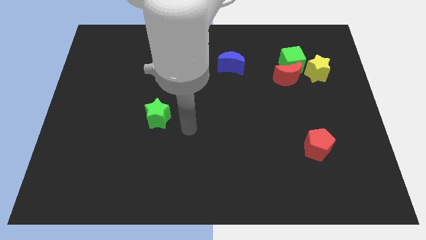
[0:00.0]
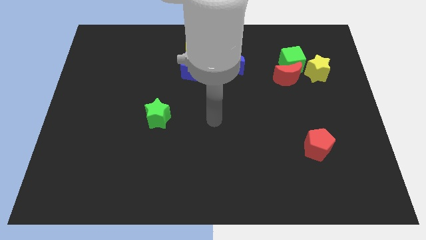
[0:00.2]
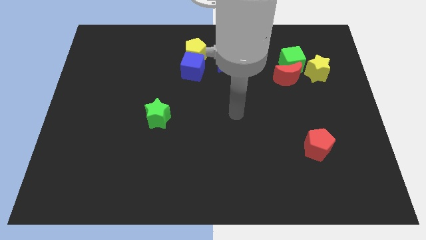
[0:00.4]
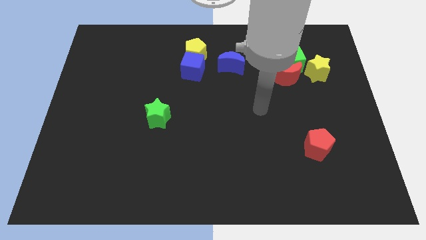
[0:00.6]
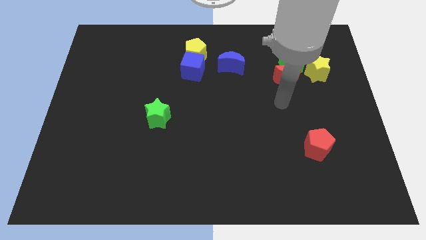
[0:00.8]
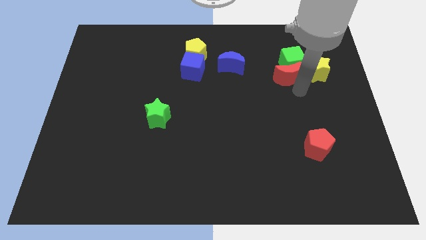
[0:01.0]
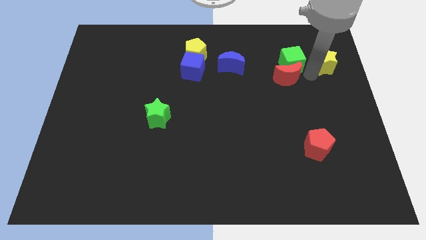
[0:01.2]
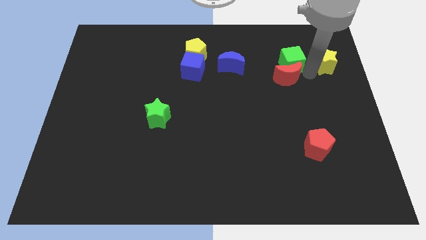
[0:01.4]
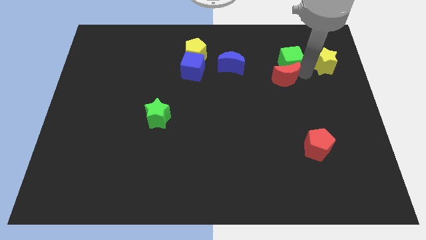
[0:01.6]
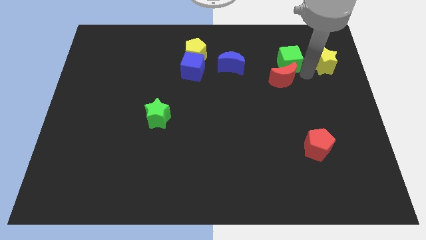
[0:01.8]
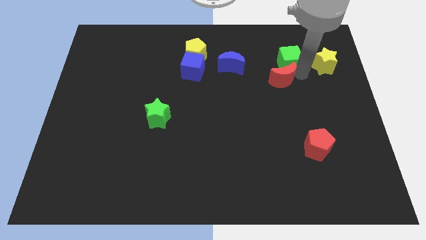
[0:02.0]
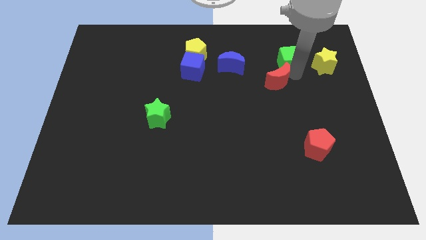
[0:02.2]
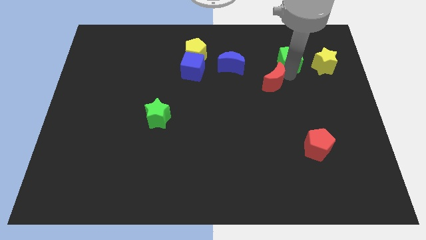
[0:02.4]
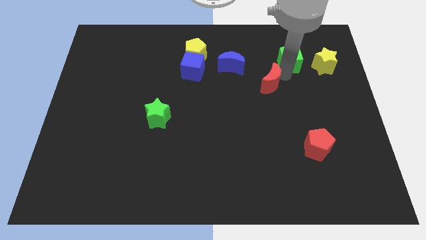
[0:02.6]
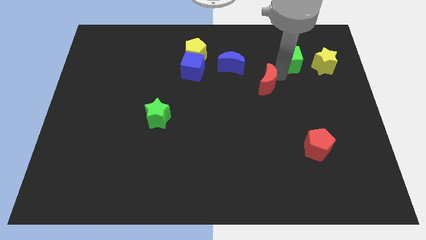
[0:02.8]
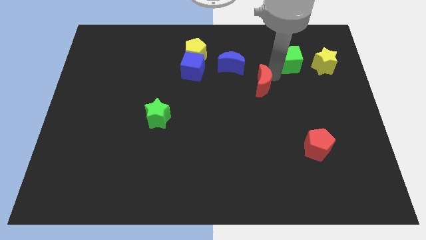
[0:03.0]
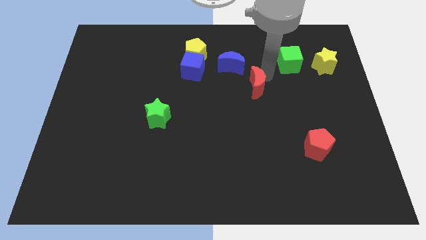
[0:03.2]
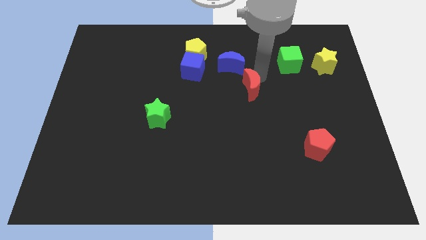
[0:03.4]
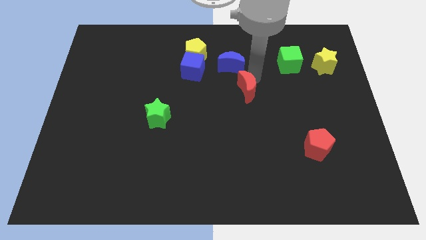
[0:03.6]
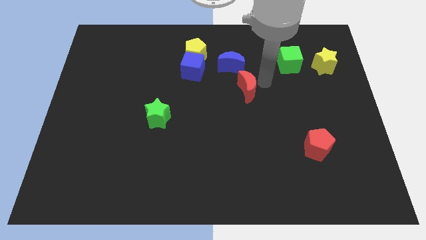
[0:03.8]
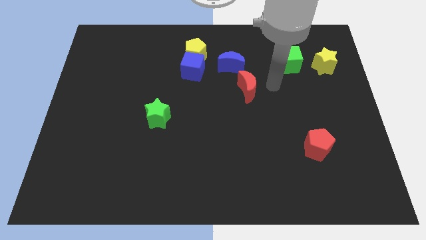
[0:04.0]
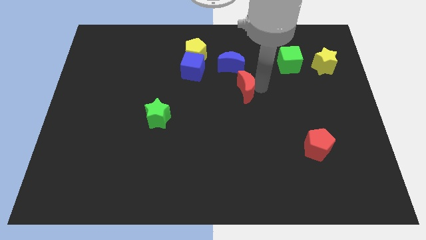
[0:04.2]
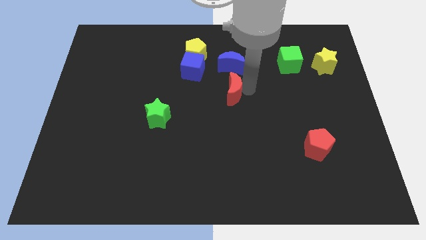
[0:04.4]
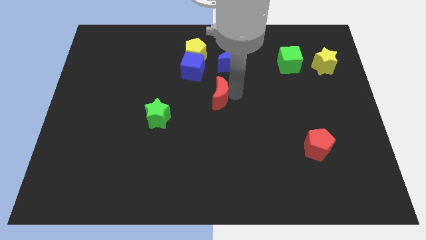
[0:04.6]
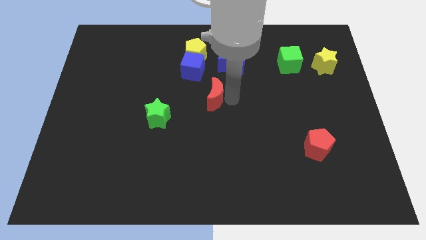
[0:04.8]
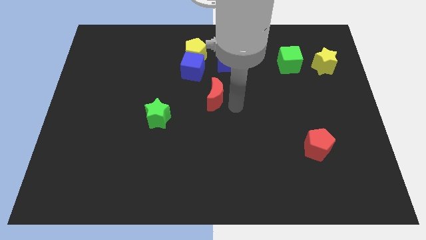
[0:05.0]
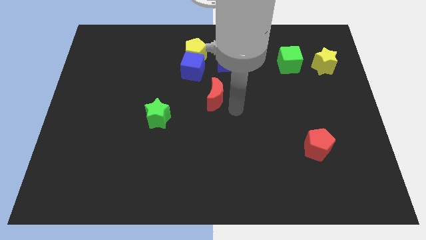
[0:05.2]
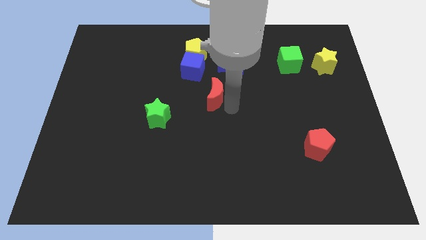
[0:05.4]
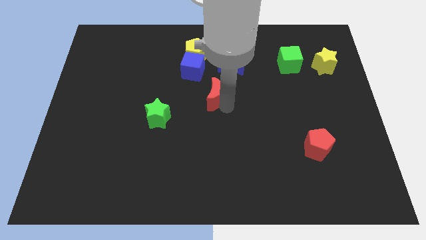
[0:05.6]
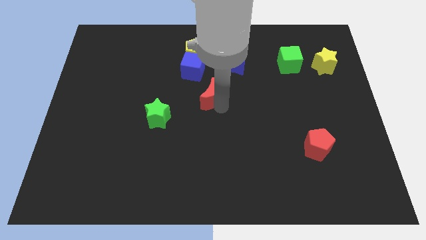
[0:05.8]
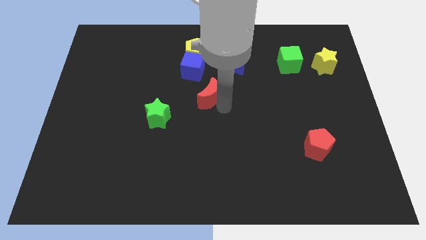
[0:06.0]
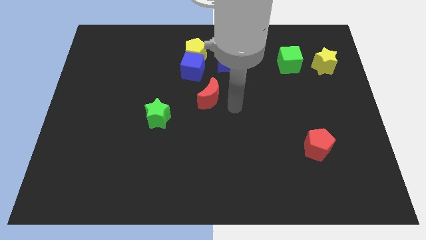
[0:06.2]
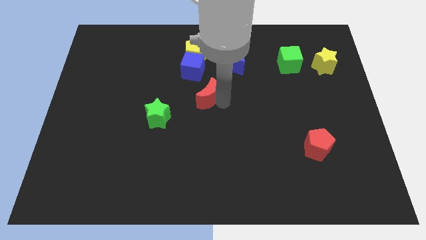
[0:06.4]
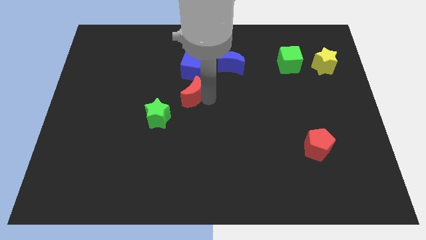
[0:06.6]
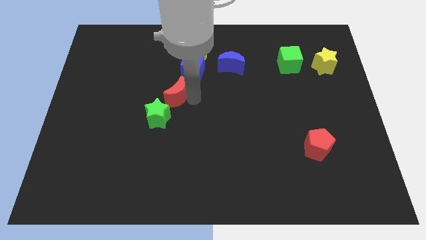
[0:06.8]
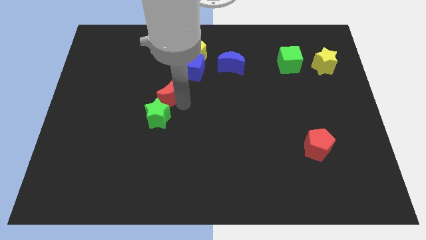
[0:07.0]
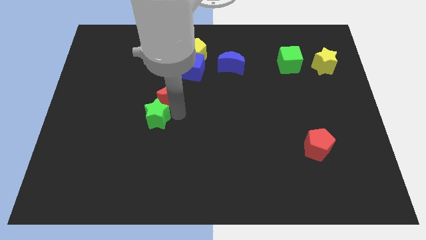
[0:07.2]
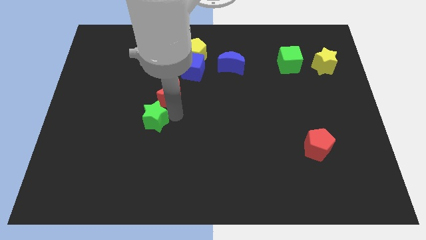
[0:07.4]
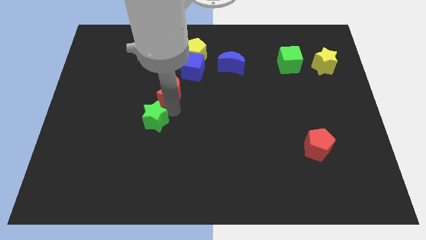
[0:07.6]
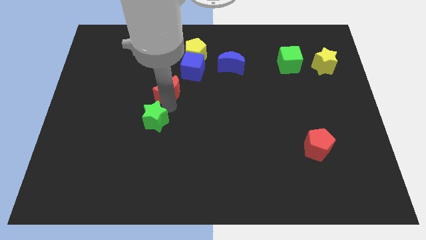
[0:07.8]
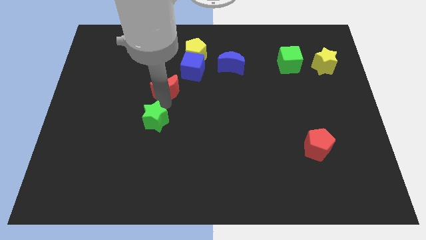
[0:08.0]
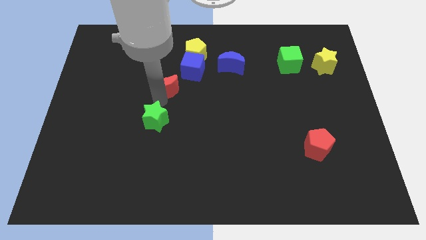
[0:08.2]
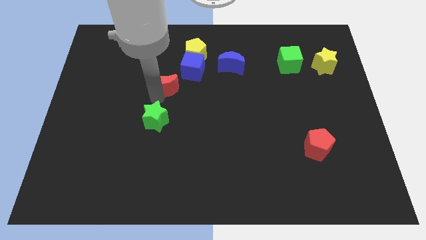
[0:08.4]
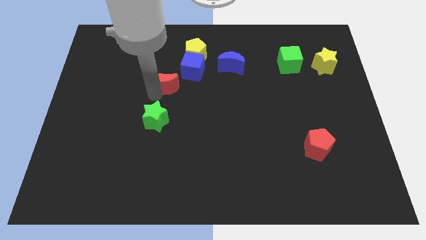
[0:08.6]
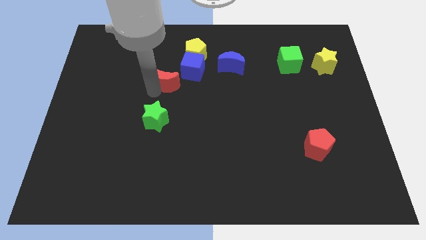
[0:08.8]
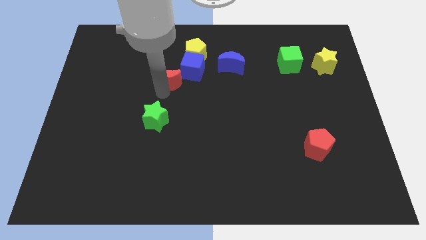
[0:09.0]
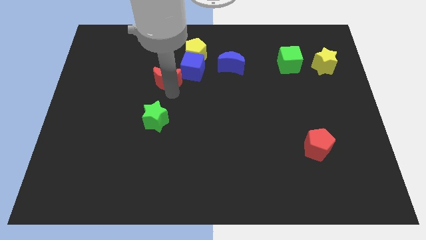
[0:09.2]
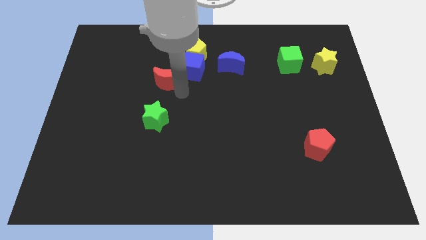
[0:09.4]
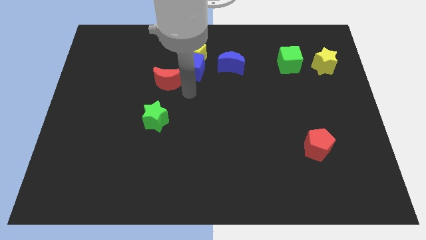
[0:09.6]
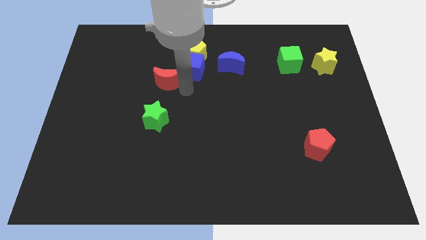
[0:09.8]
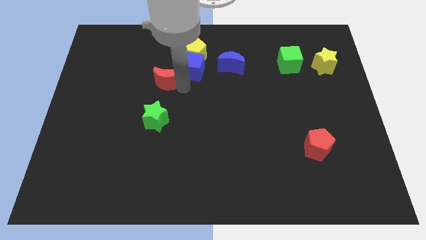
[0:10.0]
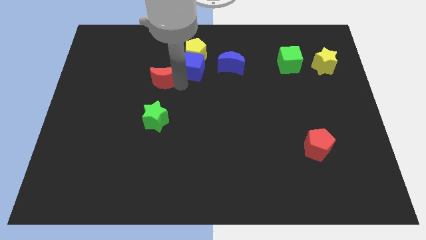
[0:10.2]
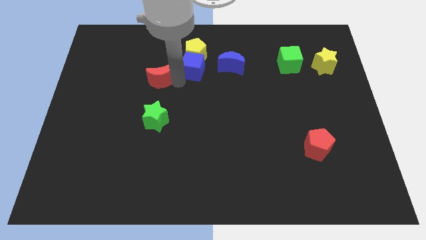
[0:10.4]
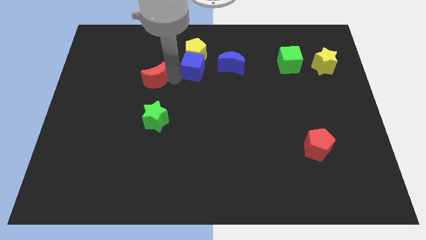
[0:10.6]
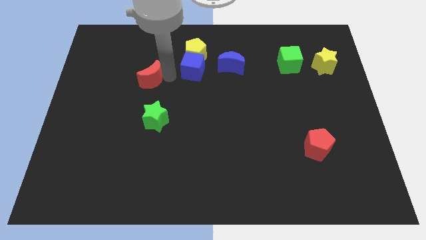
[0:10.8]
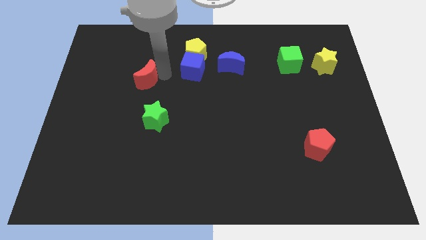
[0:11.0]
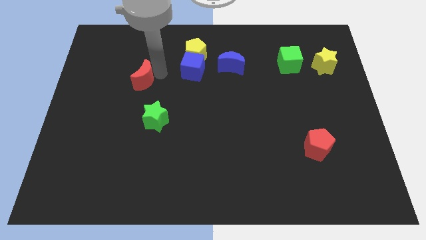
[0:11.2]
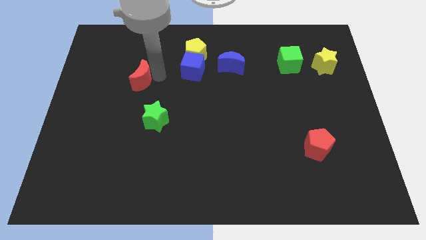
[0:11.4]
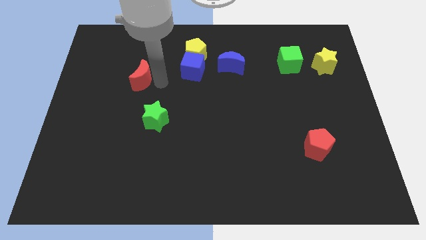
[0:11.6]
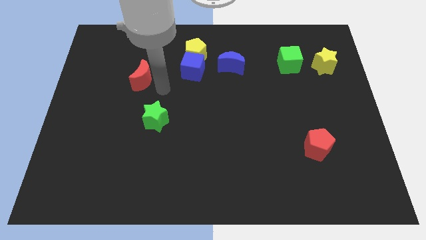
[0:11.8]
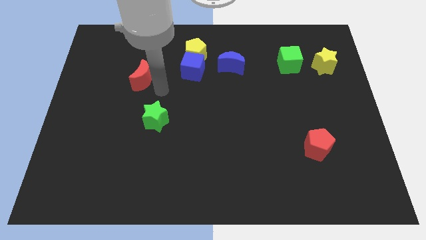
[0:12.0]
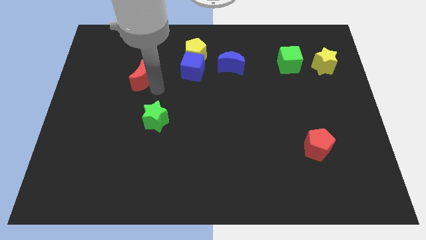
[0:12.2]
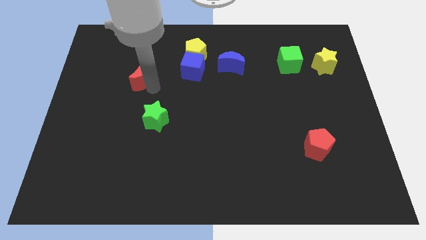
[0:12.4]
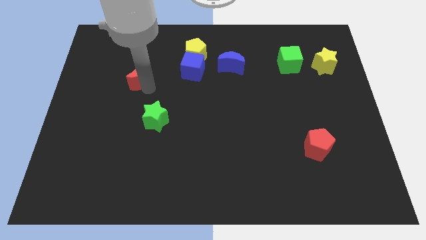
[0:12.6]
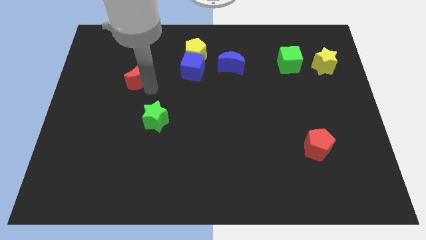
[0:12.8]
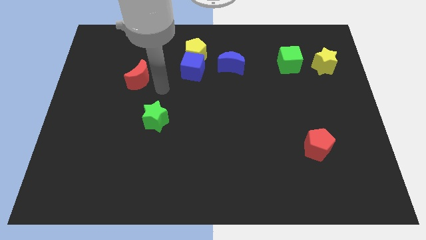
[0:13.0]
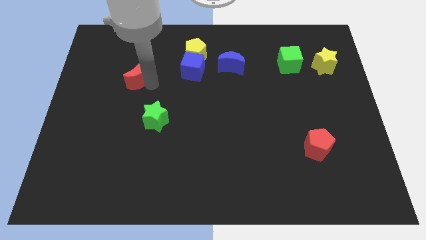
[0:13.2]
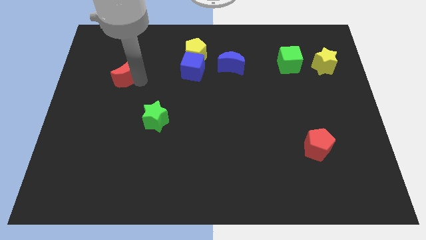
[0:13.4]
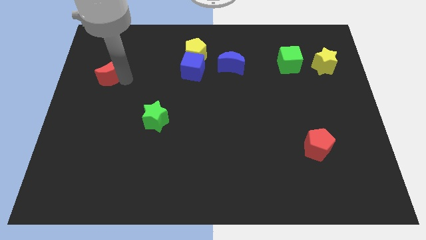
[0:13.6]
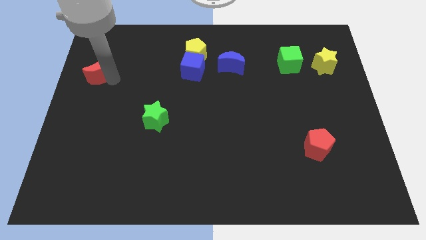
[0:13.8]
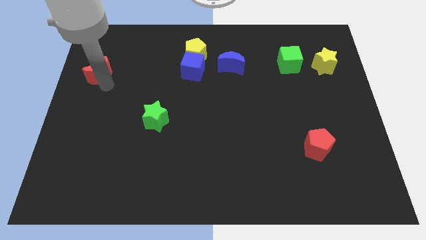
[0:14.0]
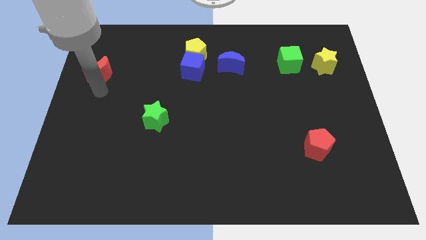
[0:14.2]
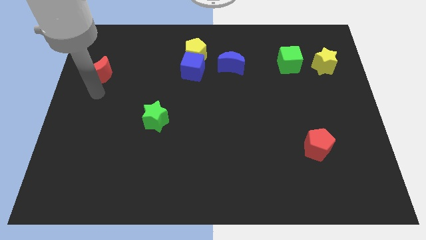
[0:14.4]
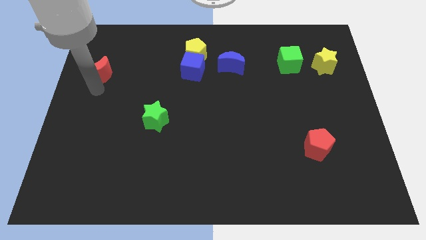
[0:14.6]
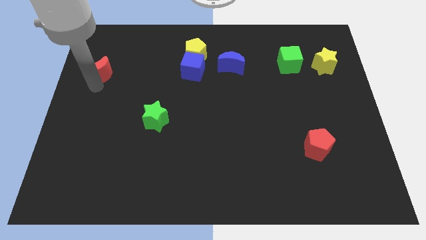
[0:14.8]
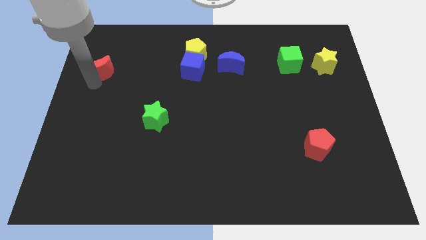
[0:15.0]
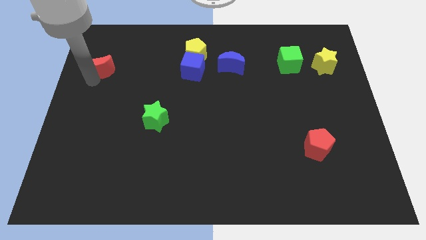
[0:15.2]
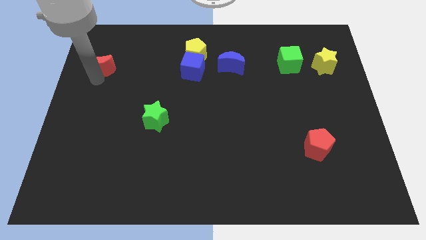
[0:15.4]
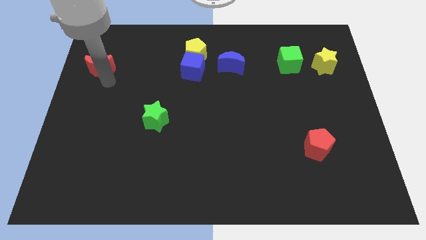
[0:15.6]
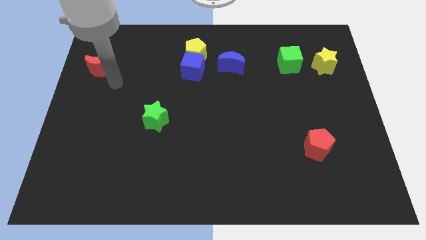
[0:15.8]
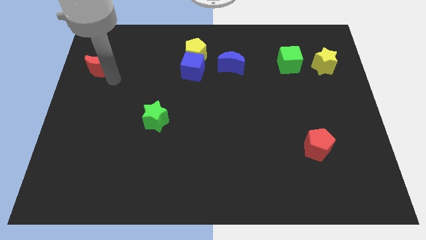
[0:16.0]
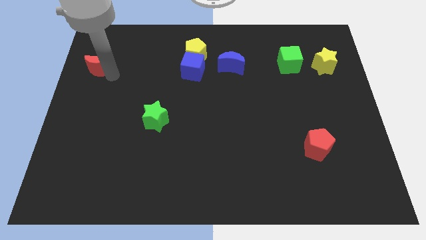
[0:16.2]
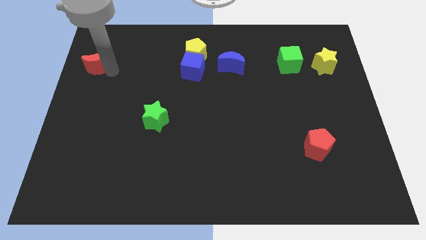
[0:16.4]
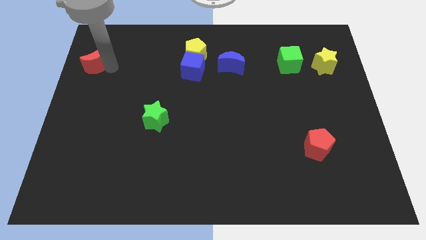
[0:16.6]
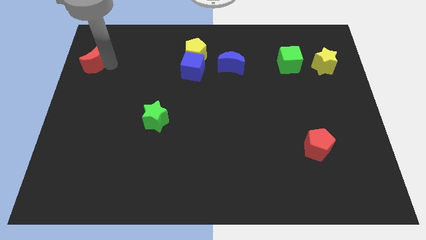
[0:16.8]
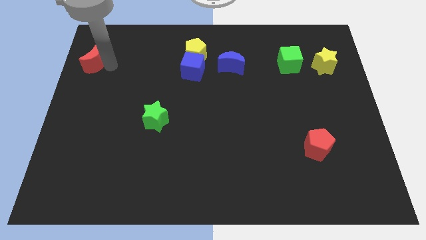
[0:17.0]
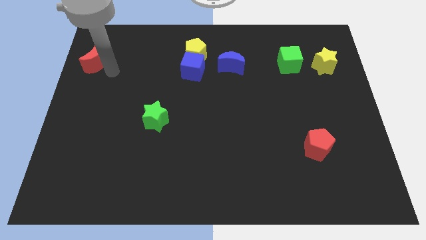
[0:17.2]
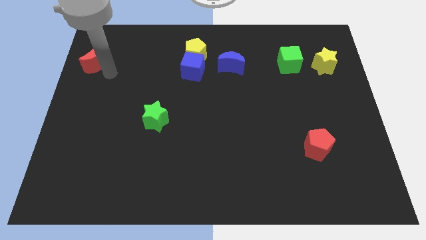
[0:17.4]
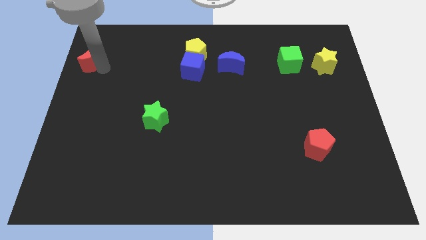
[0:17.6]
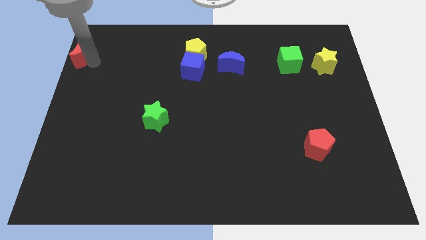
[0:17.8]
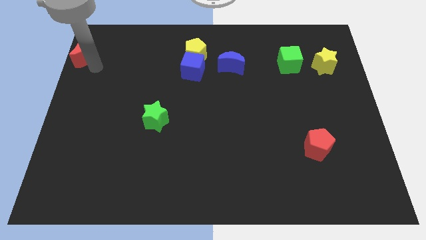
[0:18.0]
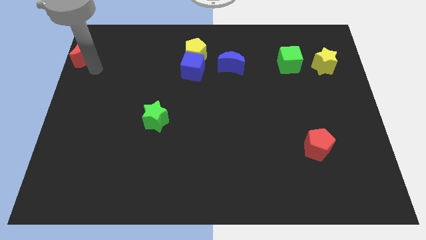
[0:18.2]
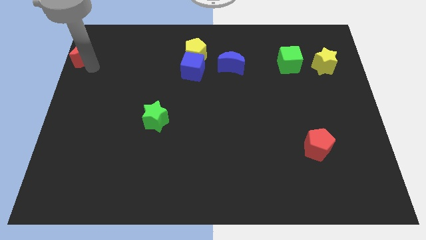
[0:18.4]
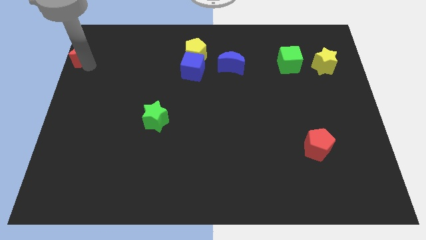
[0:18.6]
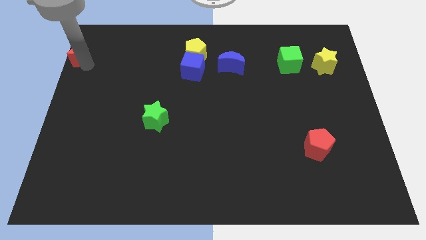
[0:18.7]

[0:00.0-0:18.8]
move the red moon to the top left corner
